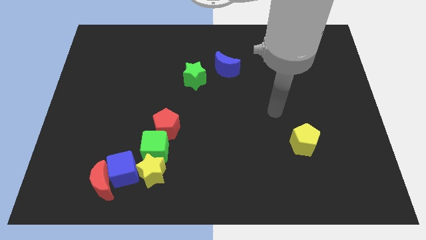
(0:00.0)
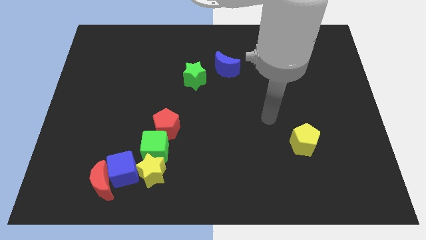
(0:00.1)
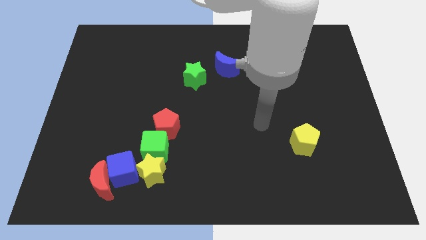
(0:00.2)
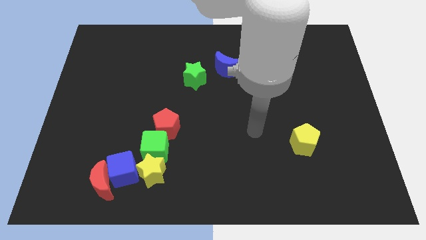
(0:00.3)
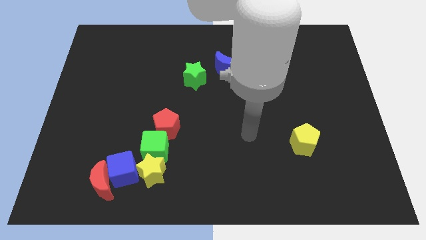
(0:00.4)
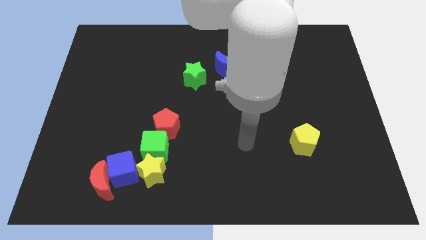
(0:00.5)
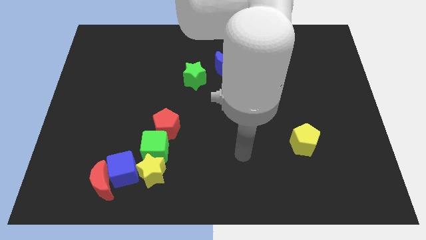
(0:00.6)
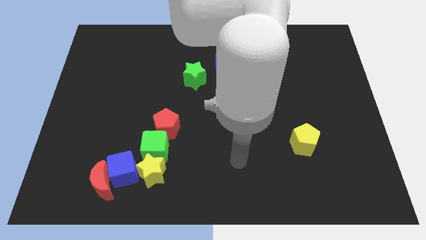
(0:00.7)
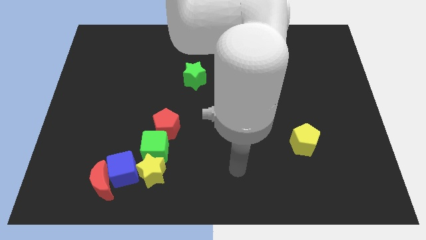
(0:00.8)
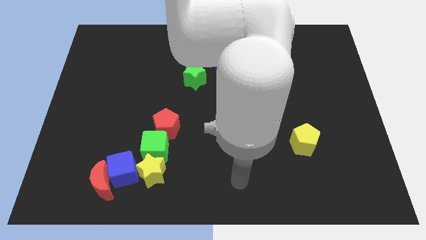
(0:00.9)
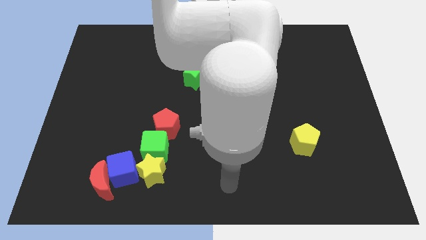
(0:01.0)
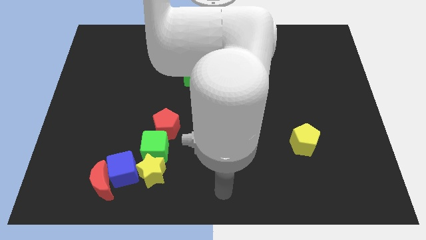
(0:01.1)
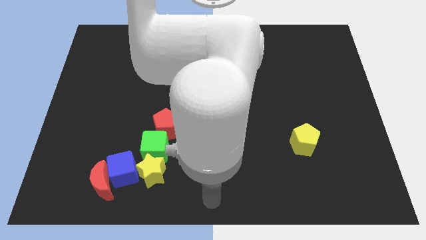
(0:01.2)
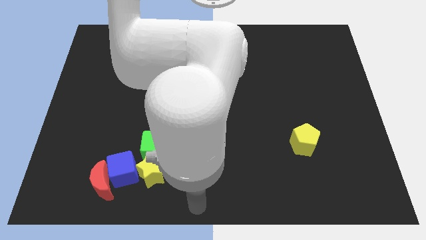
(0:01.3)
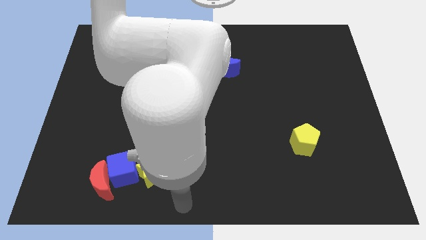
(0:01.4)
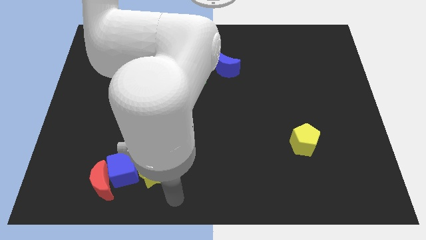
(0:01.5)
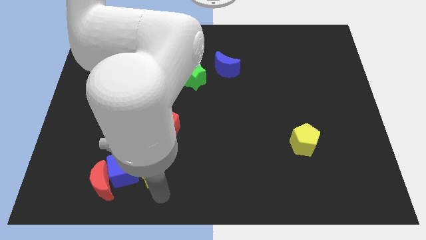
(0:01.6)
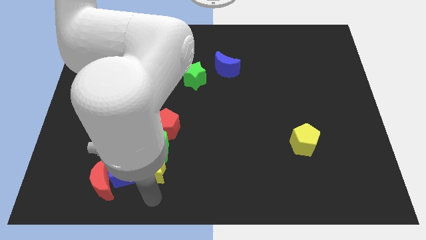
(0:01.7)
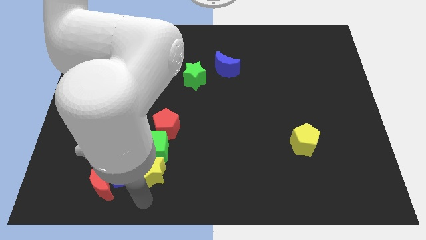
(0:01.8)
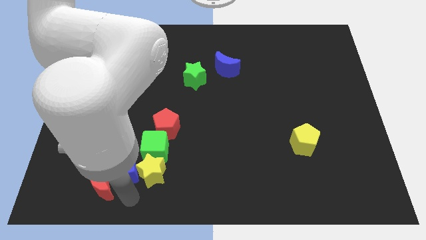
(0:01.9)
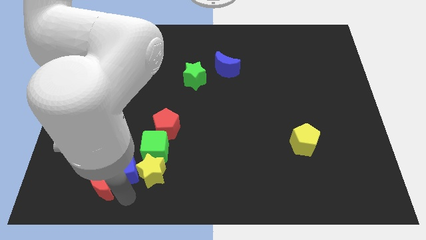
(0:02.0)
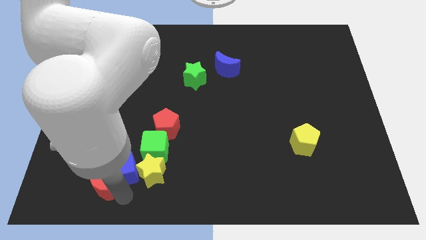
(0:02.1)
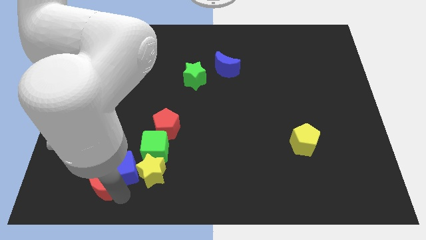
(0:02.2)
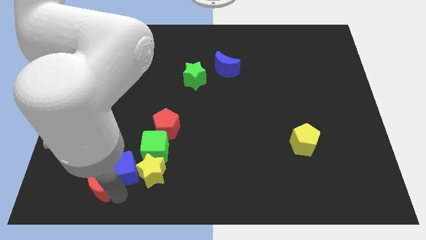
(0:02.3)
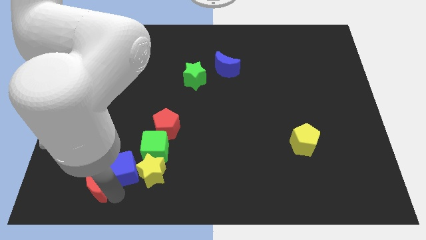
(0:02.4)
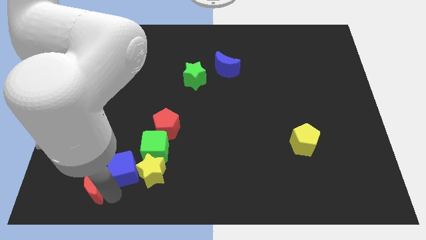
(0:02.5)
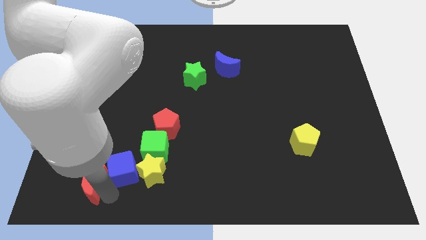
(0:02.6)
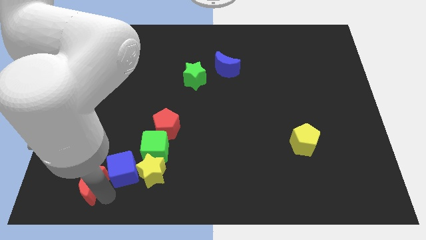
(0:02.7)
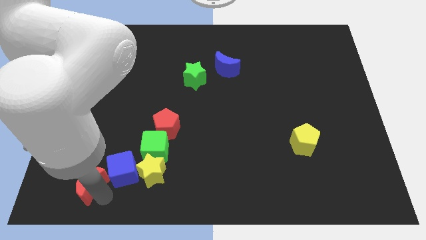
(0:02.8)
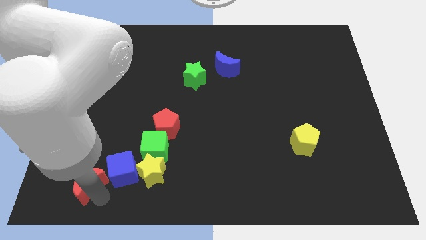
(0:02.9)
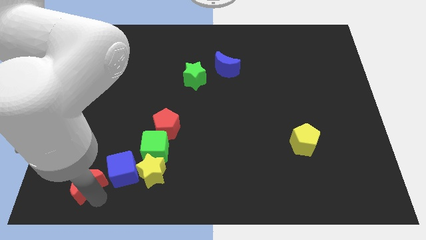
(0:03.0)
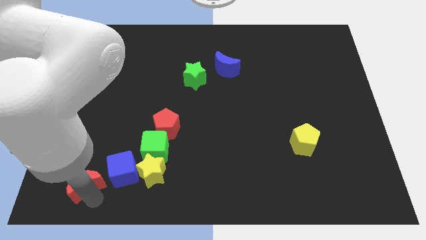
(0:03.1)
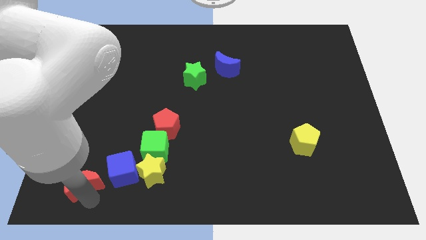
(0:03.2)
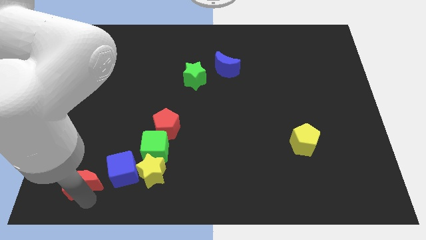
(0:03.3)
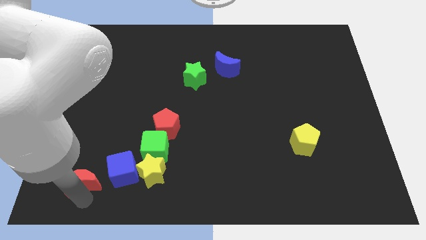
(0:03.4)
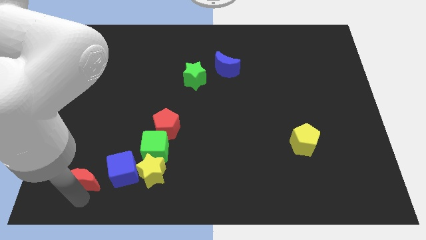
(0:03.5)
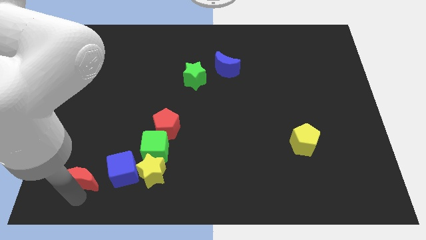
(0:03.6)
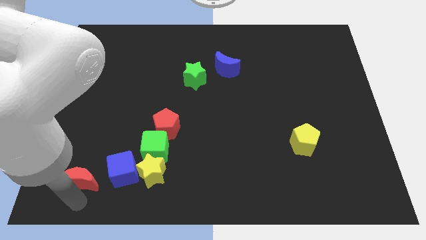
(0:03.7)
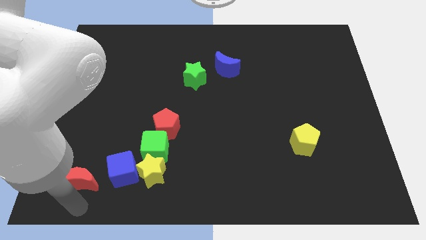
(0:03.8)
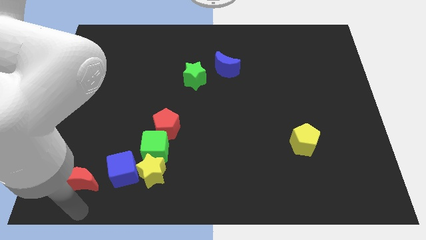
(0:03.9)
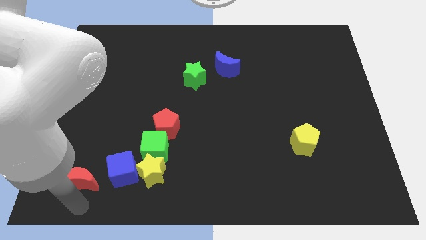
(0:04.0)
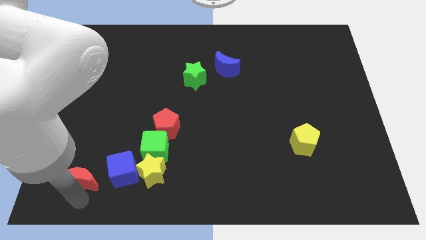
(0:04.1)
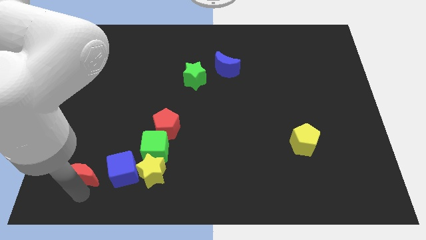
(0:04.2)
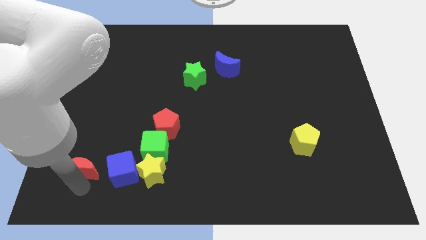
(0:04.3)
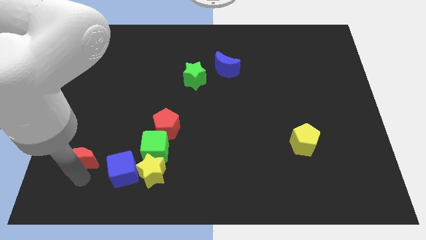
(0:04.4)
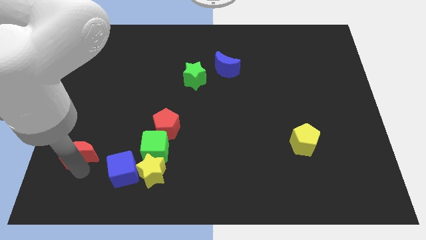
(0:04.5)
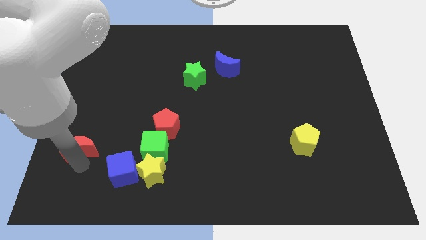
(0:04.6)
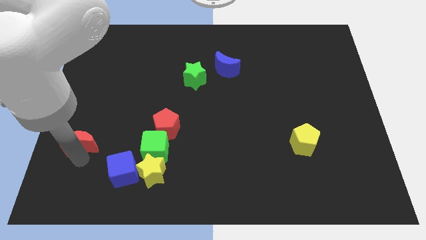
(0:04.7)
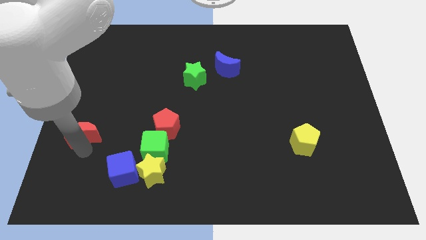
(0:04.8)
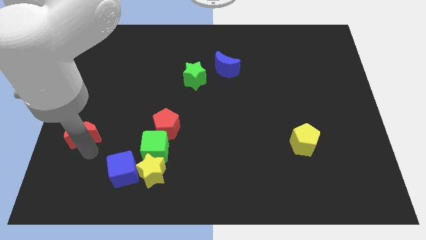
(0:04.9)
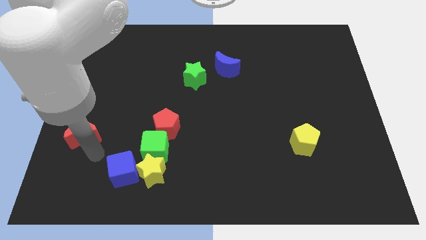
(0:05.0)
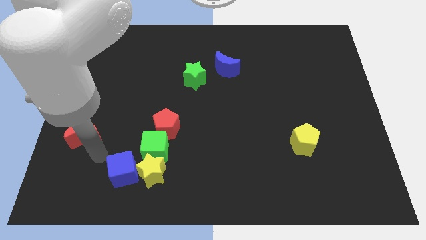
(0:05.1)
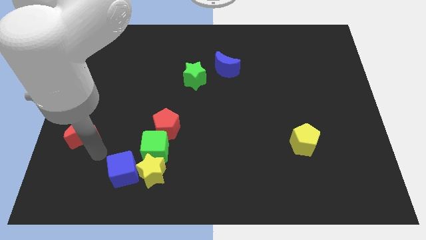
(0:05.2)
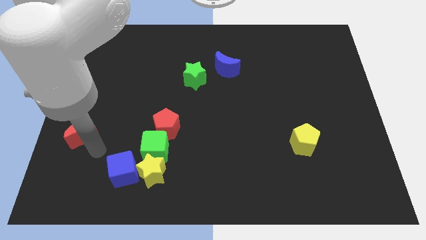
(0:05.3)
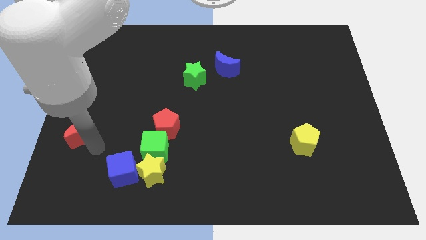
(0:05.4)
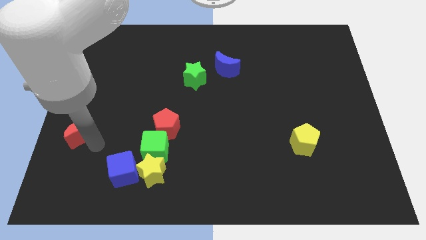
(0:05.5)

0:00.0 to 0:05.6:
put the red moon to the left side

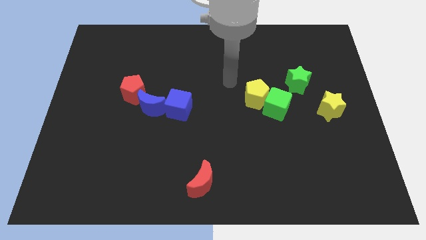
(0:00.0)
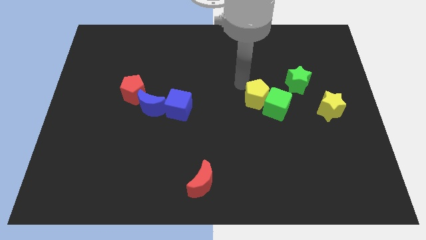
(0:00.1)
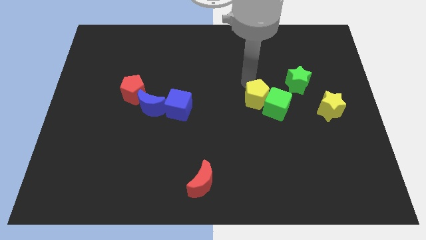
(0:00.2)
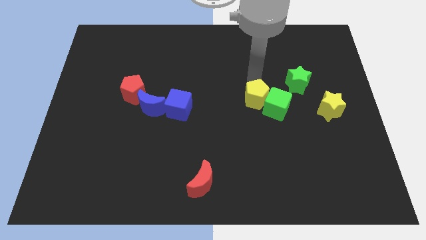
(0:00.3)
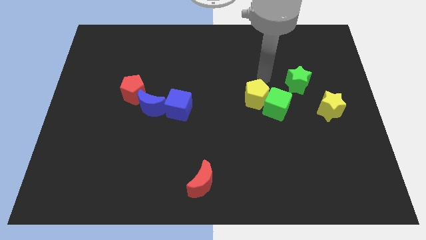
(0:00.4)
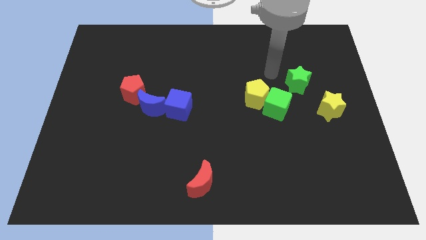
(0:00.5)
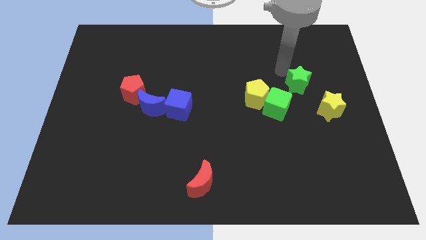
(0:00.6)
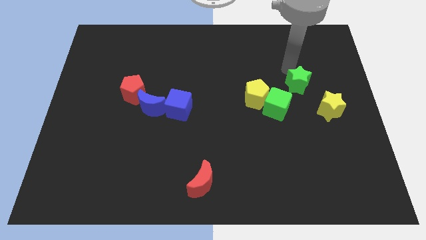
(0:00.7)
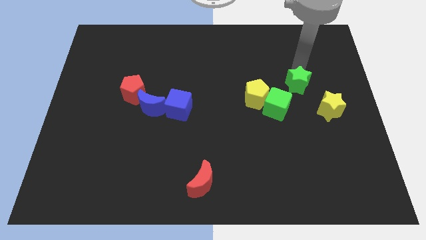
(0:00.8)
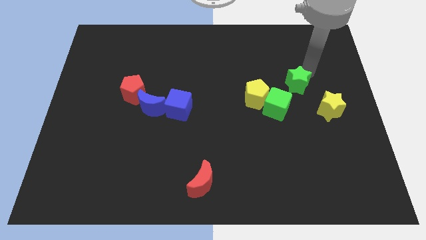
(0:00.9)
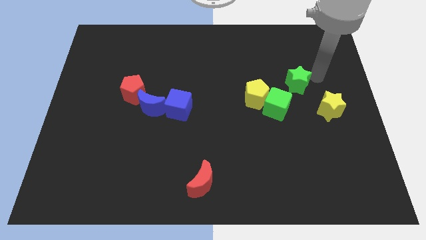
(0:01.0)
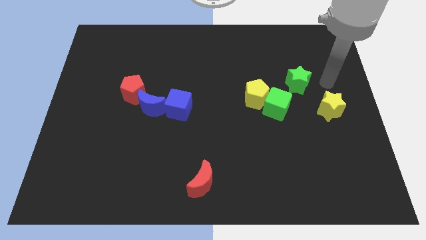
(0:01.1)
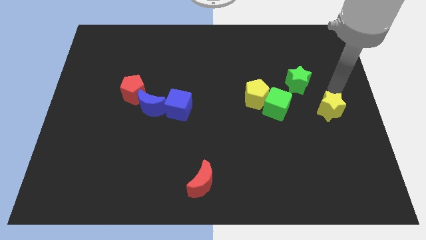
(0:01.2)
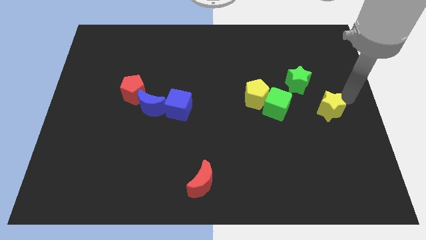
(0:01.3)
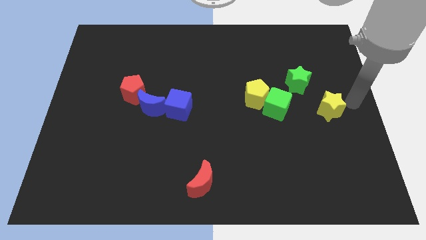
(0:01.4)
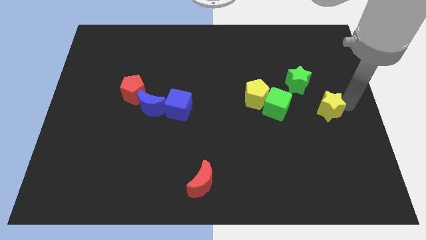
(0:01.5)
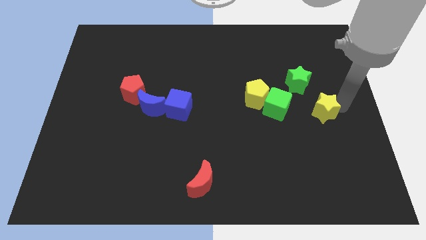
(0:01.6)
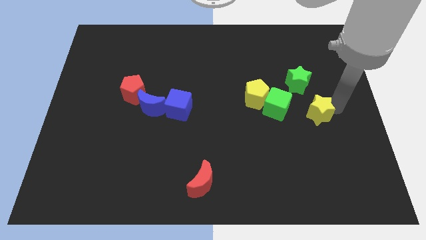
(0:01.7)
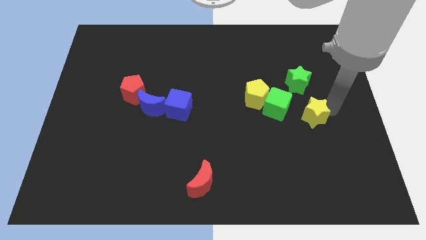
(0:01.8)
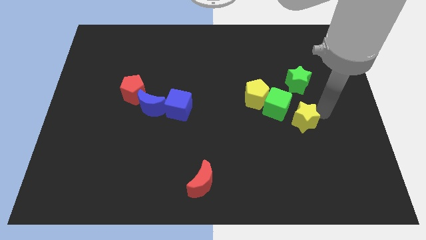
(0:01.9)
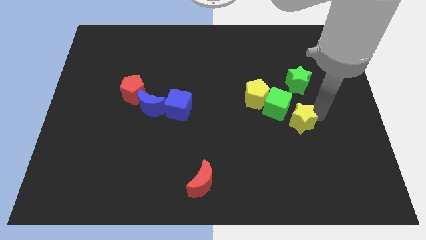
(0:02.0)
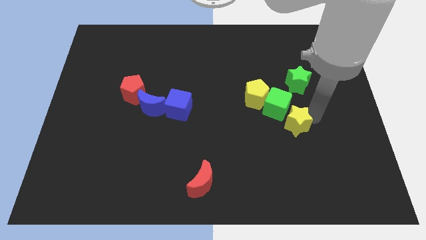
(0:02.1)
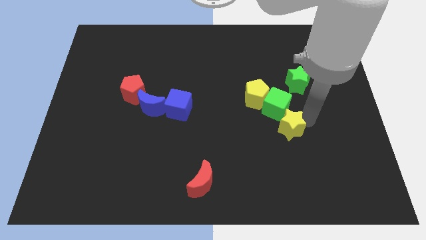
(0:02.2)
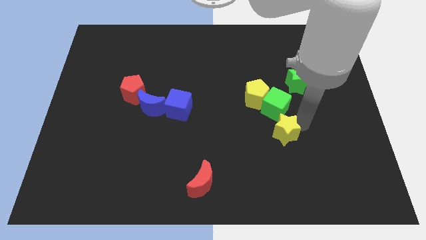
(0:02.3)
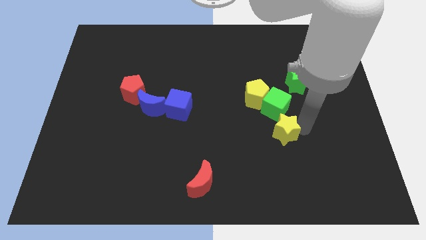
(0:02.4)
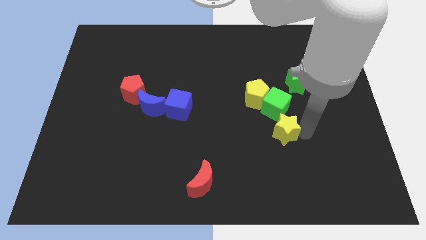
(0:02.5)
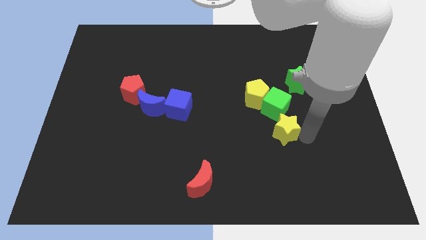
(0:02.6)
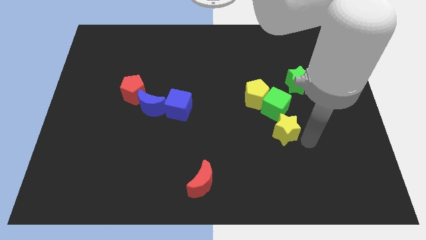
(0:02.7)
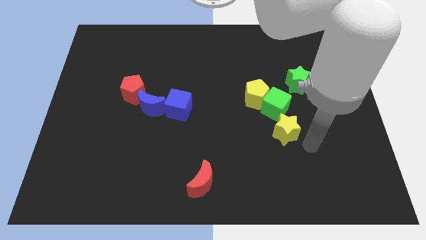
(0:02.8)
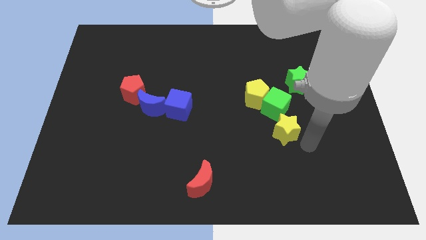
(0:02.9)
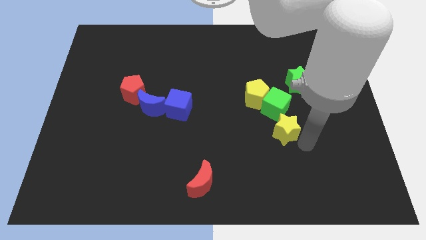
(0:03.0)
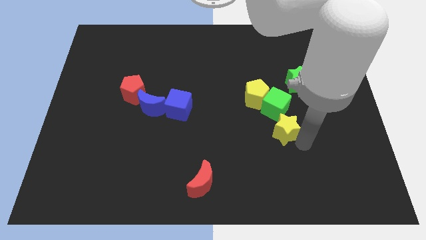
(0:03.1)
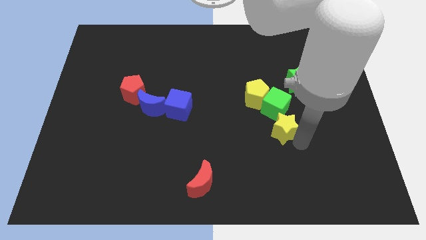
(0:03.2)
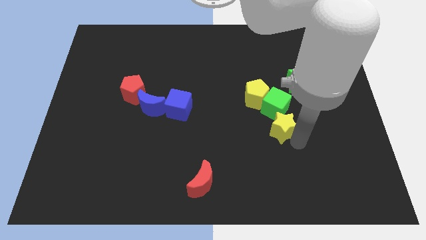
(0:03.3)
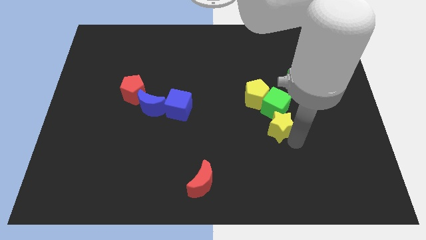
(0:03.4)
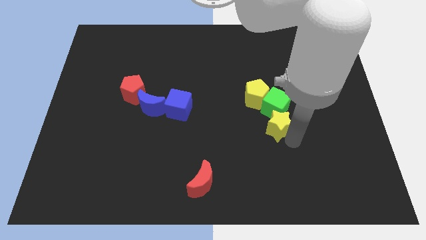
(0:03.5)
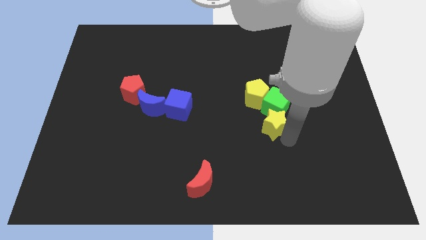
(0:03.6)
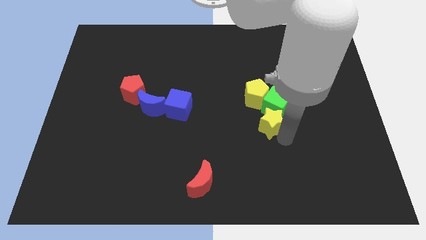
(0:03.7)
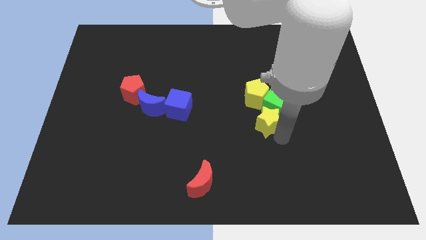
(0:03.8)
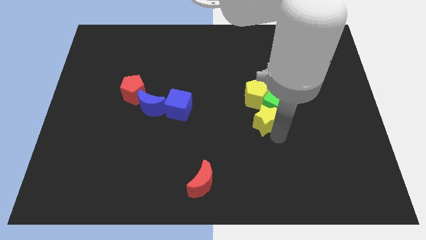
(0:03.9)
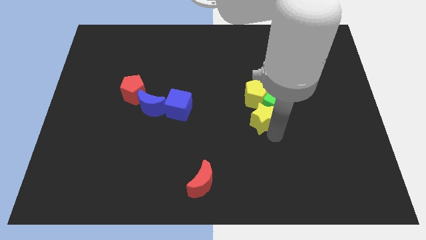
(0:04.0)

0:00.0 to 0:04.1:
push the yellow star to the center of the board
